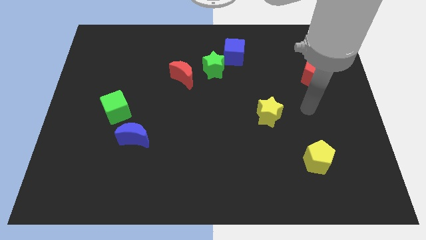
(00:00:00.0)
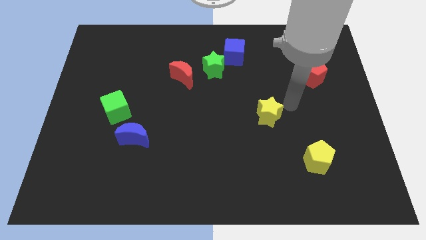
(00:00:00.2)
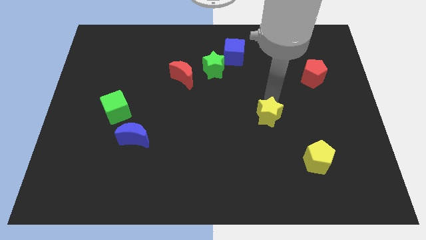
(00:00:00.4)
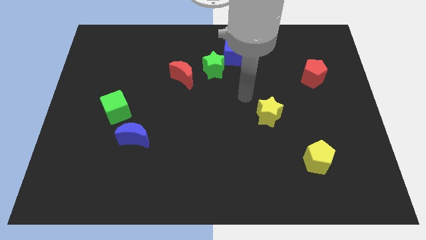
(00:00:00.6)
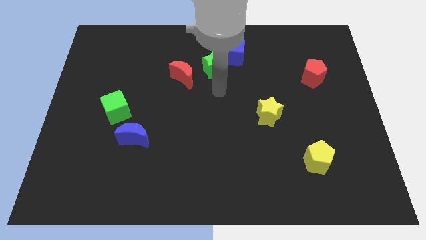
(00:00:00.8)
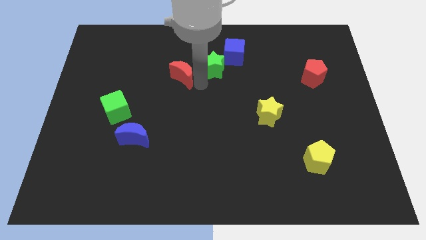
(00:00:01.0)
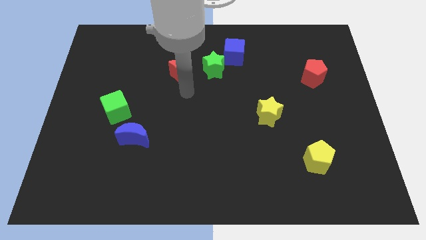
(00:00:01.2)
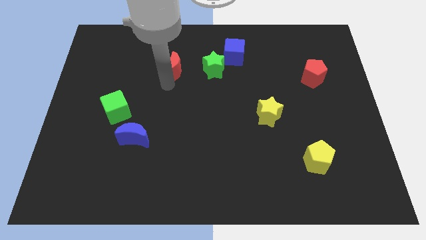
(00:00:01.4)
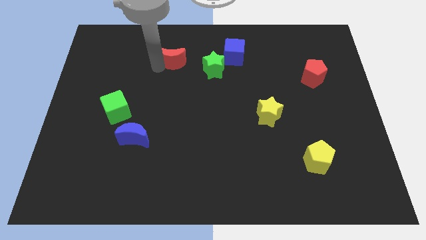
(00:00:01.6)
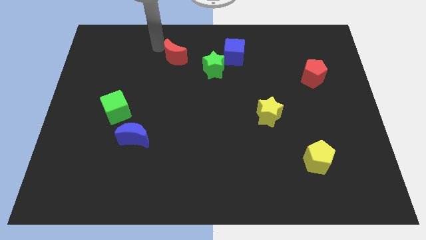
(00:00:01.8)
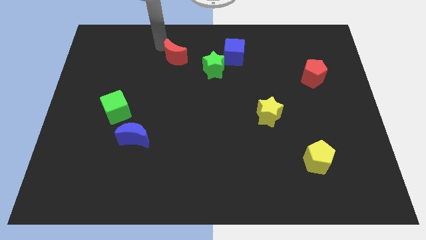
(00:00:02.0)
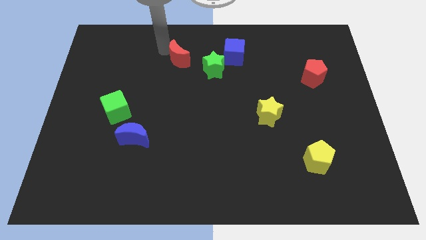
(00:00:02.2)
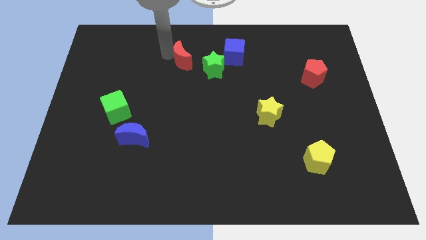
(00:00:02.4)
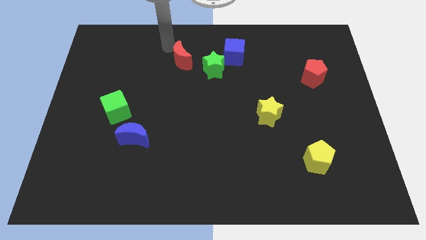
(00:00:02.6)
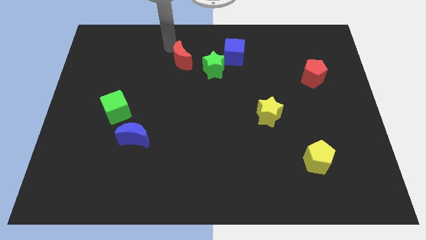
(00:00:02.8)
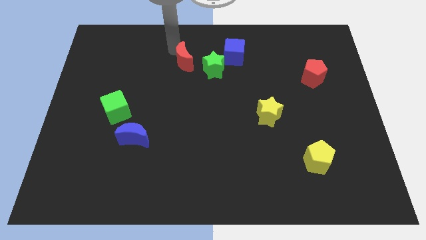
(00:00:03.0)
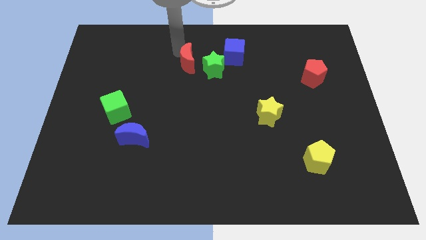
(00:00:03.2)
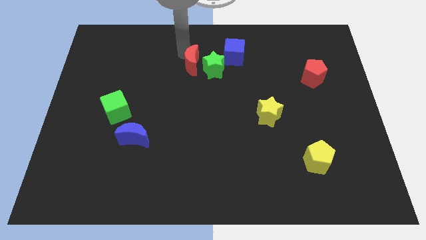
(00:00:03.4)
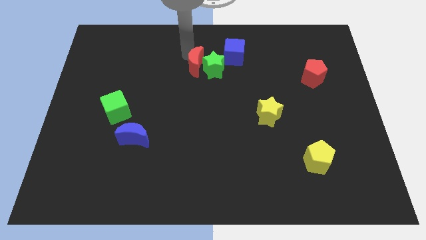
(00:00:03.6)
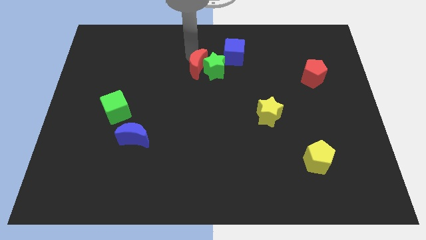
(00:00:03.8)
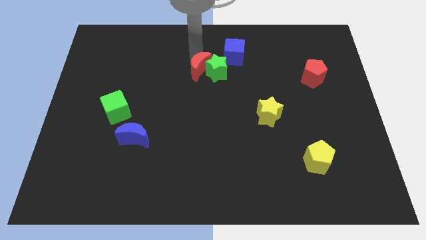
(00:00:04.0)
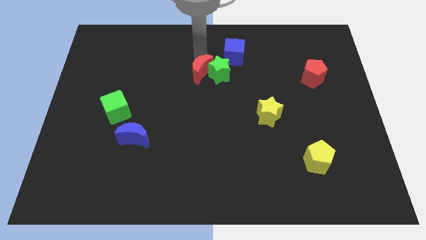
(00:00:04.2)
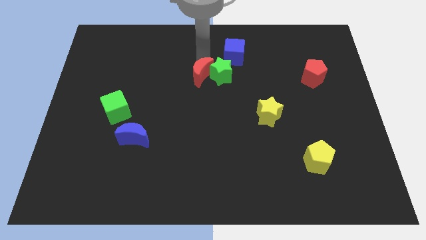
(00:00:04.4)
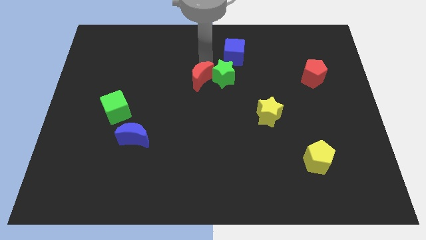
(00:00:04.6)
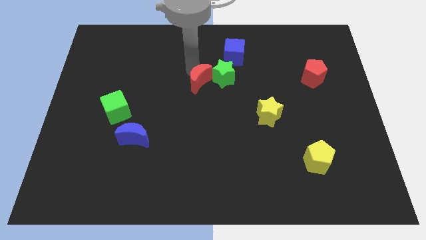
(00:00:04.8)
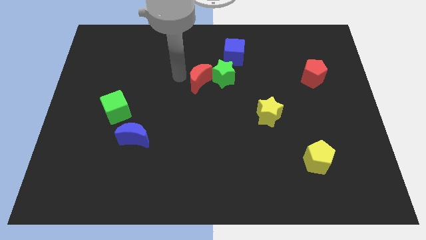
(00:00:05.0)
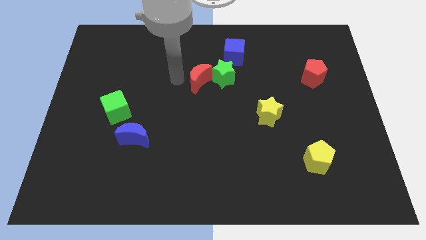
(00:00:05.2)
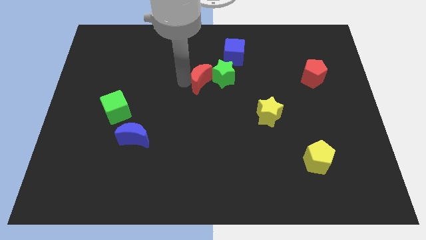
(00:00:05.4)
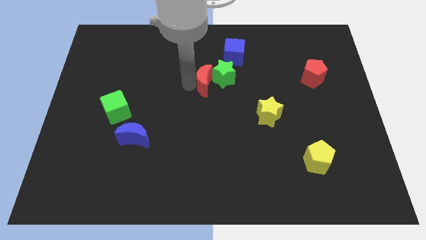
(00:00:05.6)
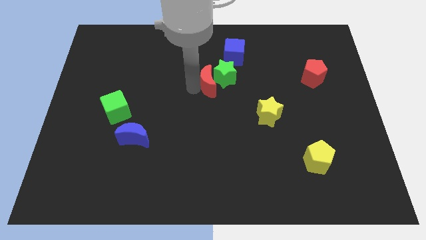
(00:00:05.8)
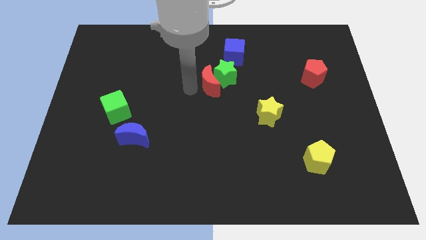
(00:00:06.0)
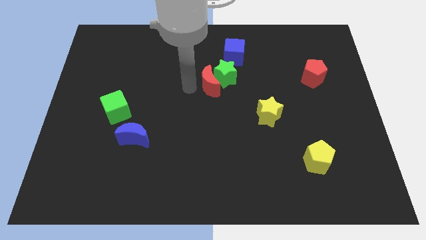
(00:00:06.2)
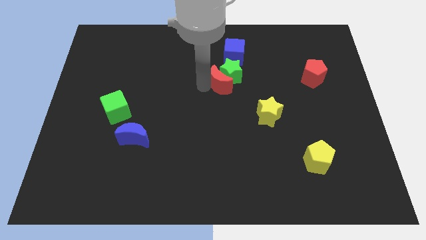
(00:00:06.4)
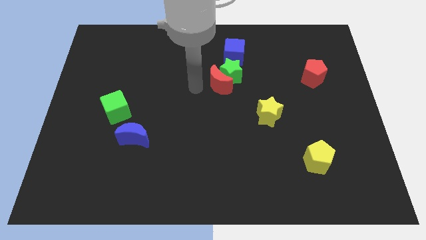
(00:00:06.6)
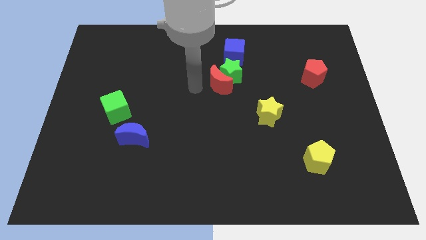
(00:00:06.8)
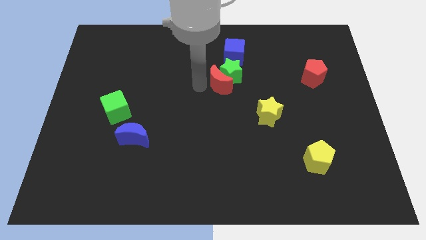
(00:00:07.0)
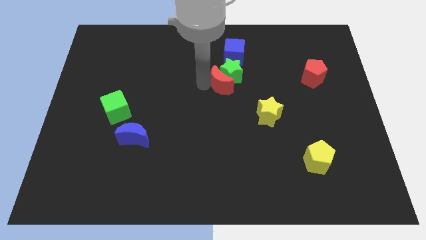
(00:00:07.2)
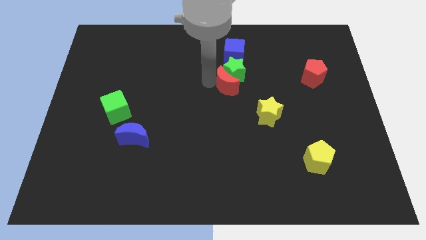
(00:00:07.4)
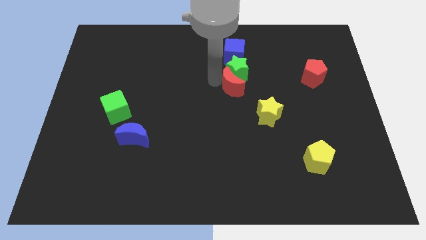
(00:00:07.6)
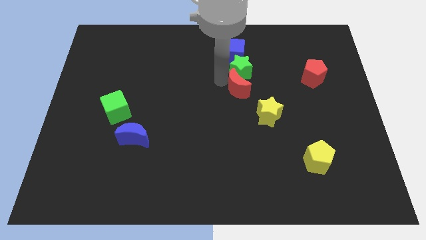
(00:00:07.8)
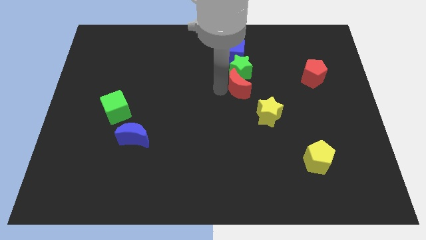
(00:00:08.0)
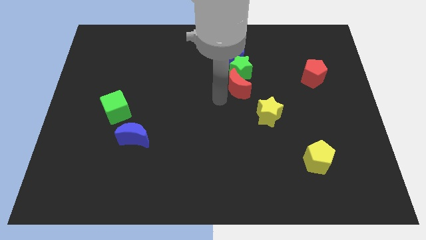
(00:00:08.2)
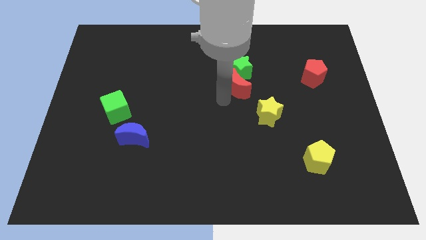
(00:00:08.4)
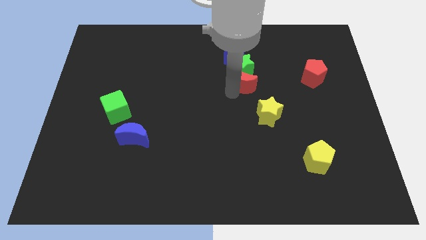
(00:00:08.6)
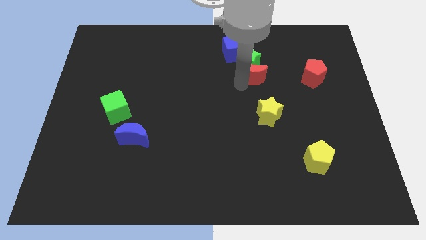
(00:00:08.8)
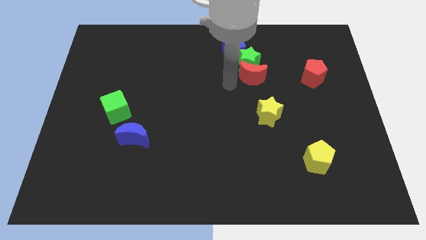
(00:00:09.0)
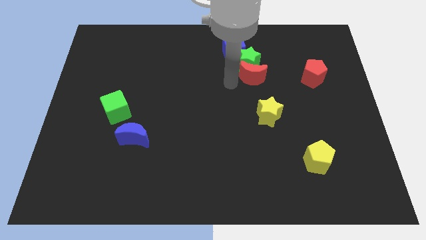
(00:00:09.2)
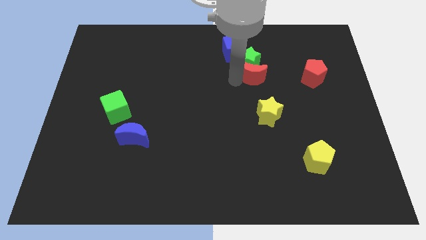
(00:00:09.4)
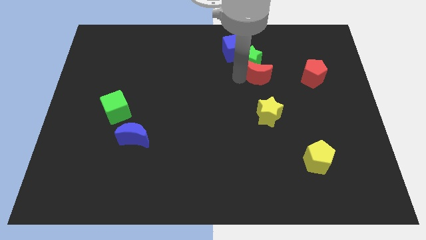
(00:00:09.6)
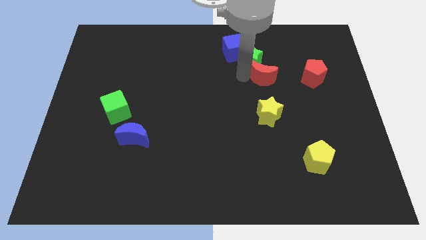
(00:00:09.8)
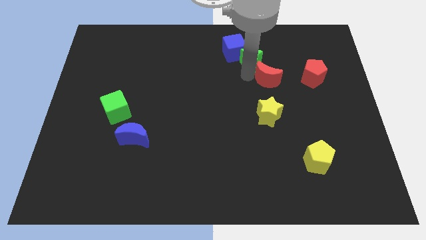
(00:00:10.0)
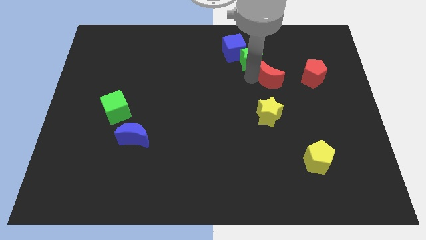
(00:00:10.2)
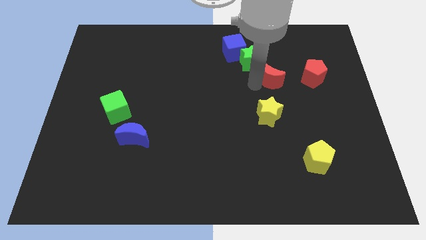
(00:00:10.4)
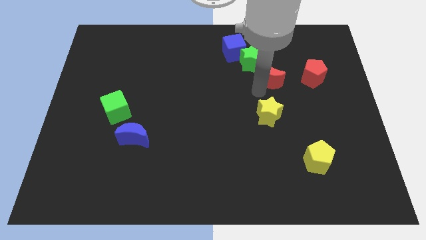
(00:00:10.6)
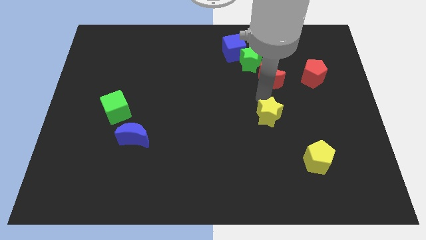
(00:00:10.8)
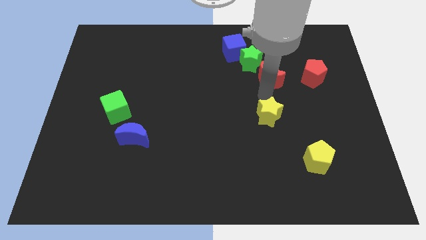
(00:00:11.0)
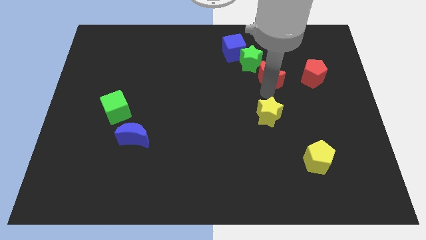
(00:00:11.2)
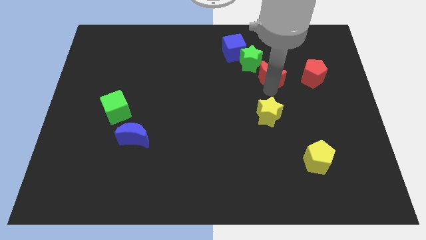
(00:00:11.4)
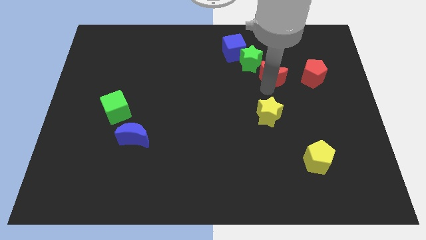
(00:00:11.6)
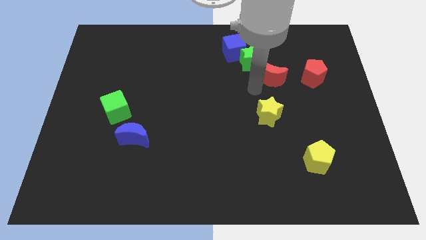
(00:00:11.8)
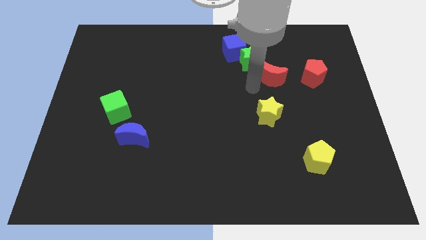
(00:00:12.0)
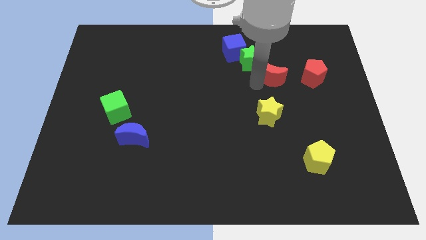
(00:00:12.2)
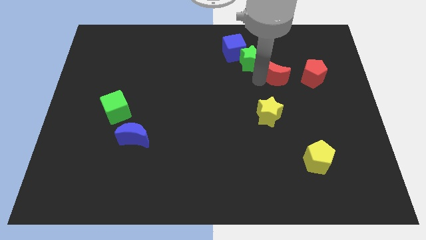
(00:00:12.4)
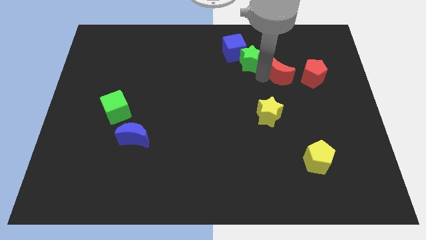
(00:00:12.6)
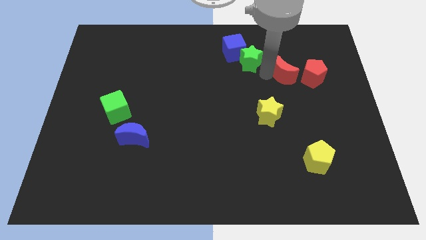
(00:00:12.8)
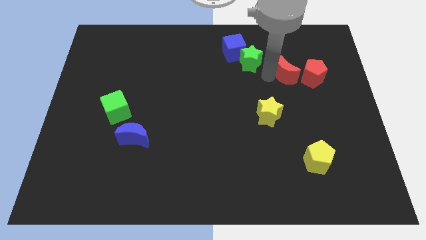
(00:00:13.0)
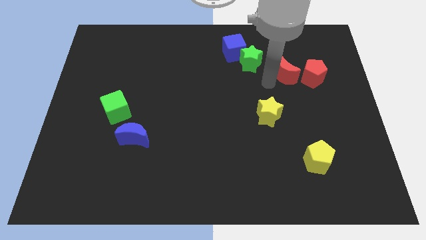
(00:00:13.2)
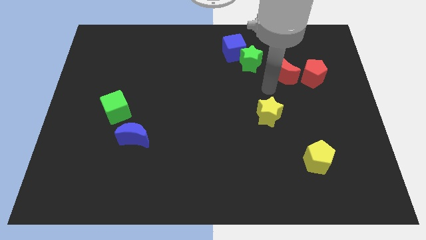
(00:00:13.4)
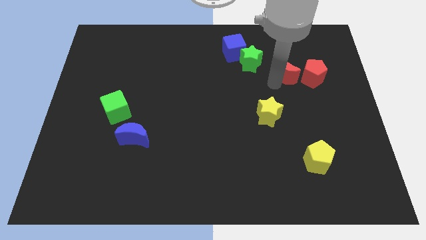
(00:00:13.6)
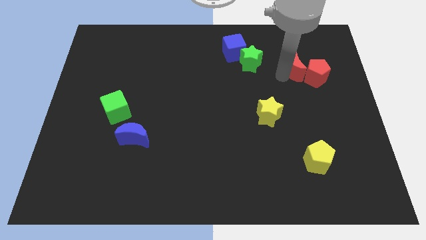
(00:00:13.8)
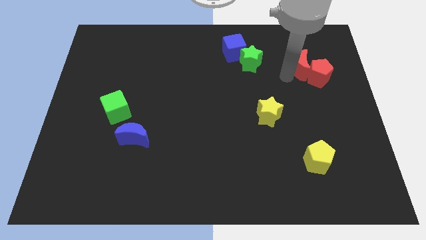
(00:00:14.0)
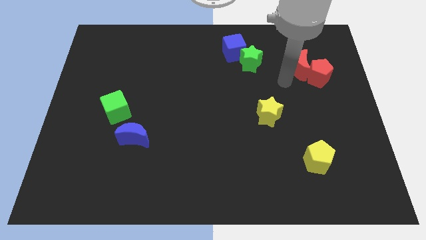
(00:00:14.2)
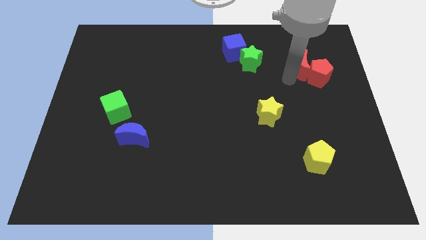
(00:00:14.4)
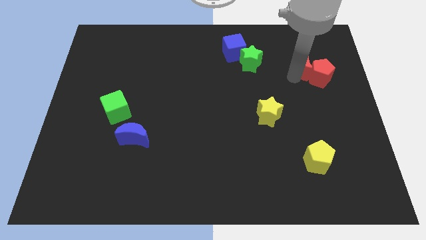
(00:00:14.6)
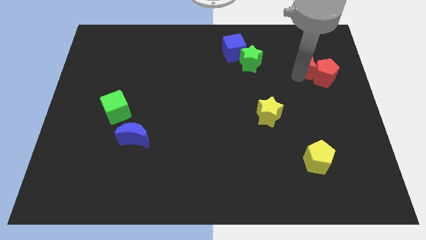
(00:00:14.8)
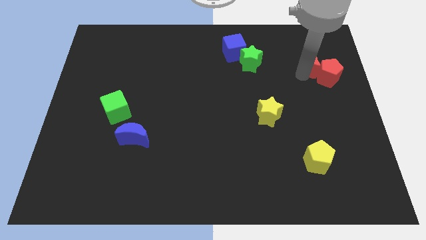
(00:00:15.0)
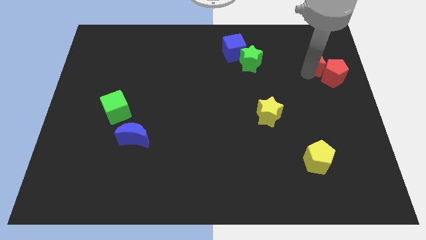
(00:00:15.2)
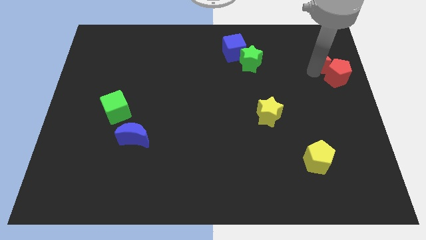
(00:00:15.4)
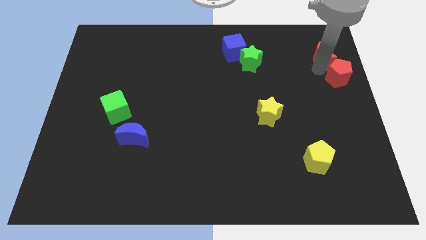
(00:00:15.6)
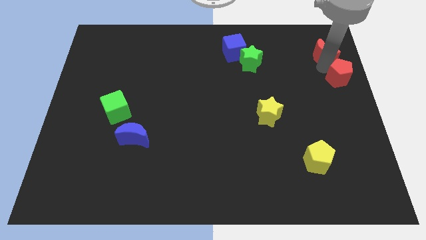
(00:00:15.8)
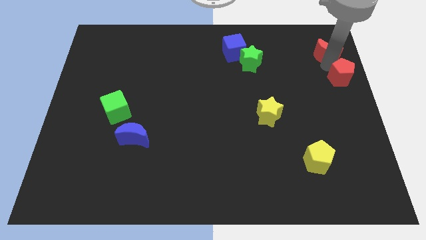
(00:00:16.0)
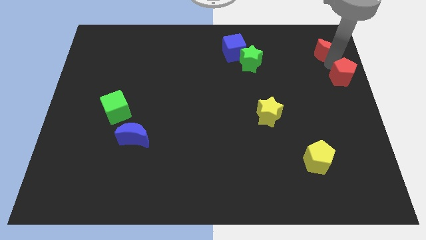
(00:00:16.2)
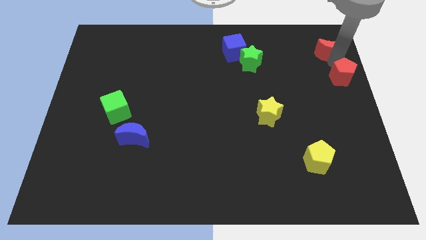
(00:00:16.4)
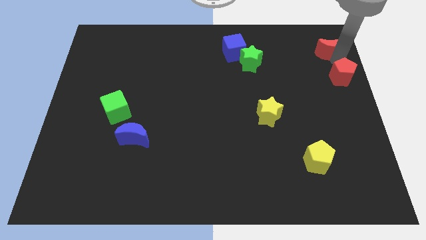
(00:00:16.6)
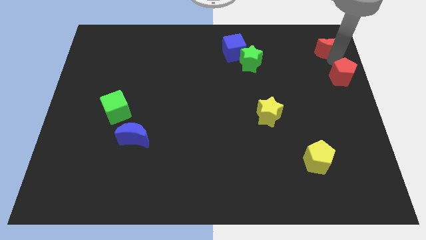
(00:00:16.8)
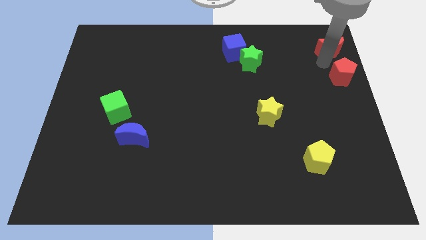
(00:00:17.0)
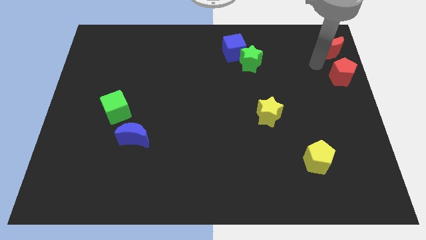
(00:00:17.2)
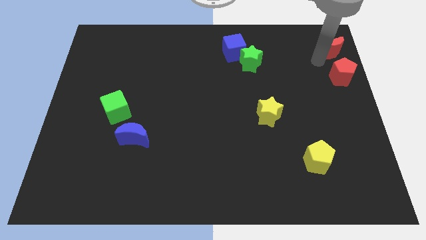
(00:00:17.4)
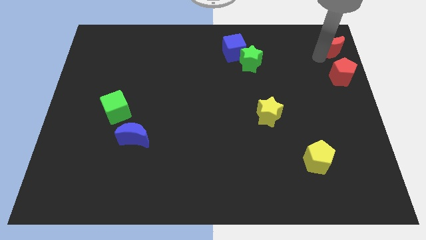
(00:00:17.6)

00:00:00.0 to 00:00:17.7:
move the red moon to the top right corner
